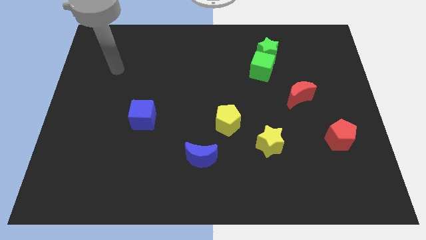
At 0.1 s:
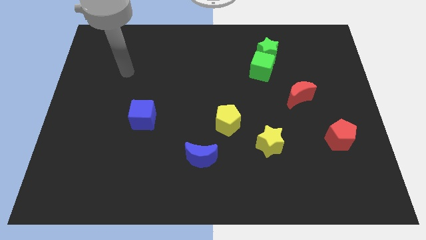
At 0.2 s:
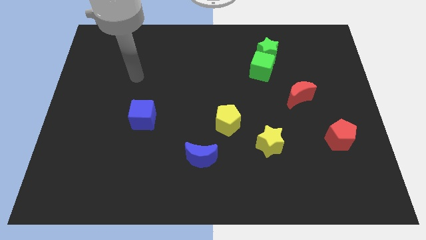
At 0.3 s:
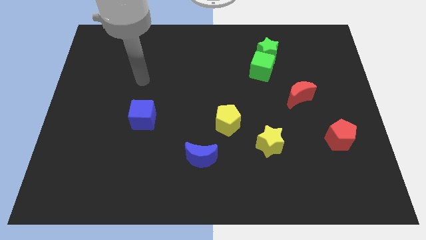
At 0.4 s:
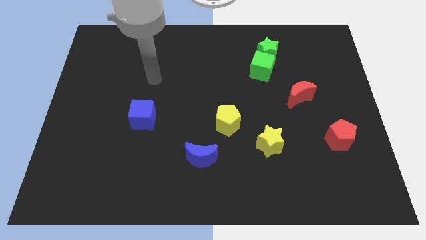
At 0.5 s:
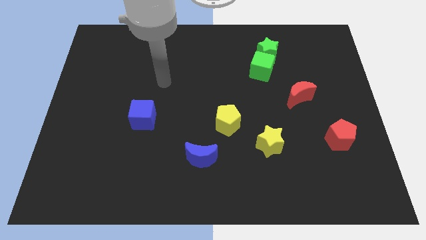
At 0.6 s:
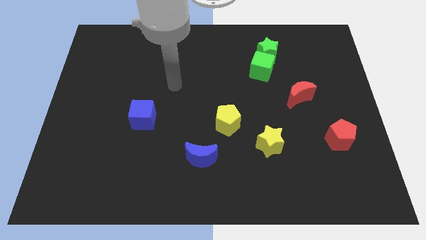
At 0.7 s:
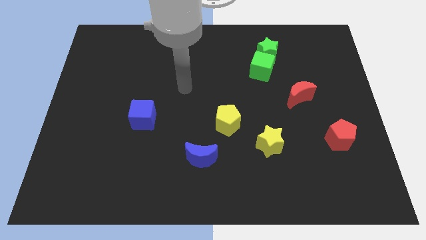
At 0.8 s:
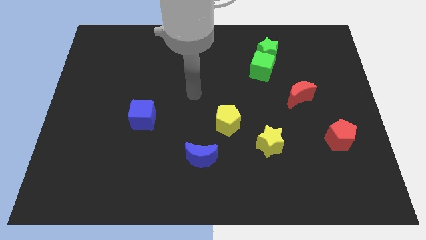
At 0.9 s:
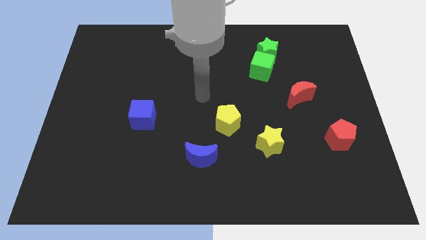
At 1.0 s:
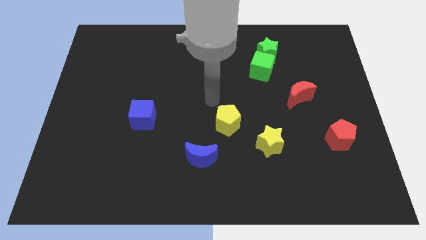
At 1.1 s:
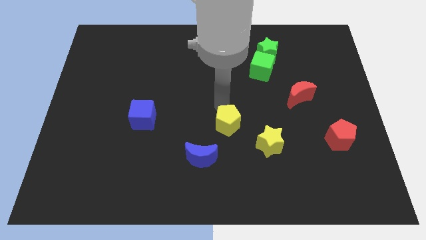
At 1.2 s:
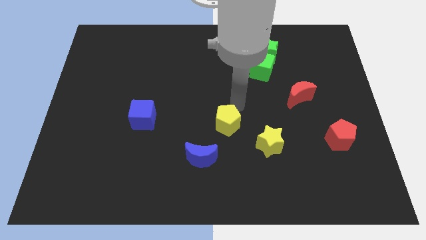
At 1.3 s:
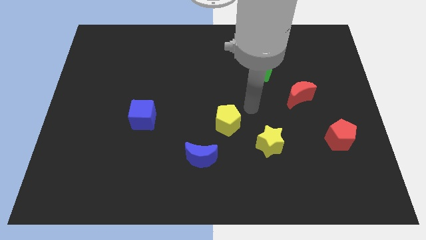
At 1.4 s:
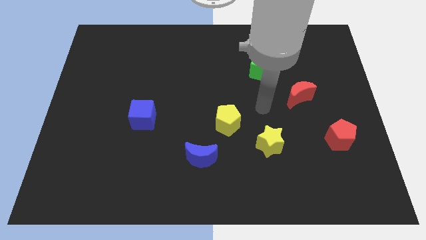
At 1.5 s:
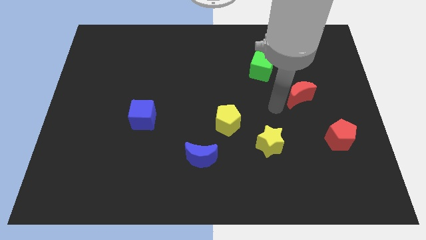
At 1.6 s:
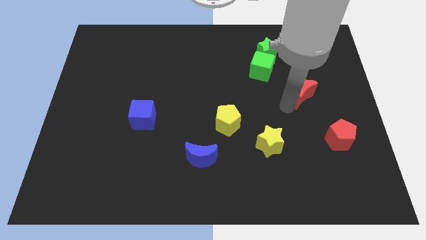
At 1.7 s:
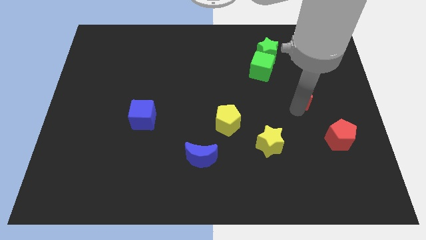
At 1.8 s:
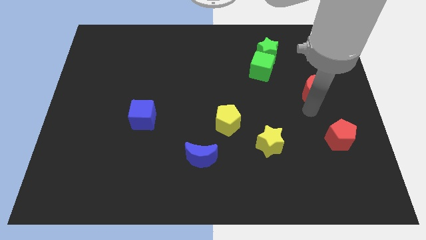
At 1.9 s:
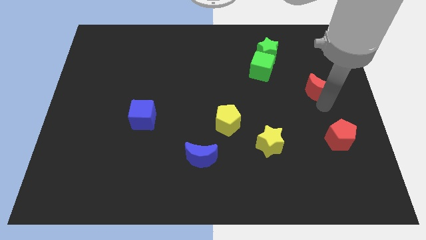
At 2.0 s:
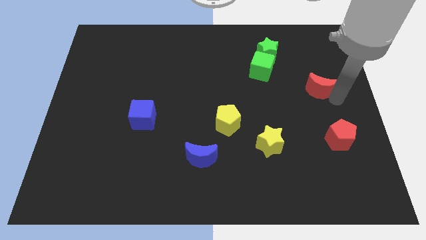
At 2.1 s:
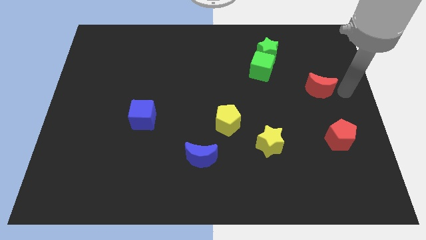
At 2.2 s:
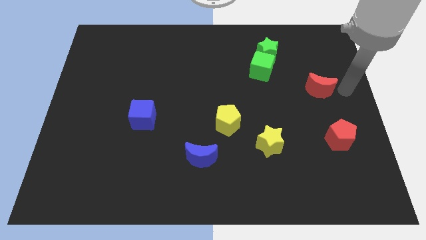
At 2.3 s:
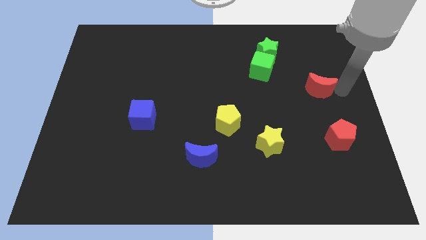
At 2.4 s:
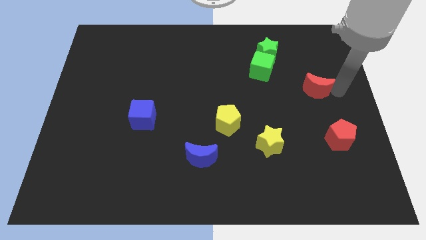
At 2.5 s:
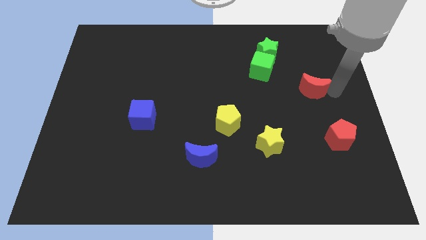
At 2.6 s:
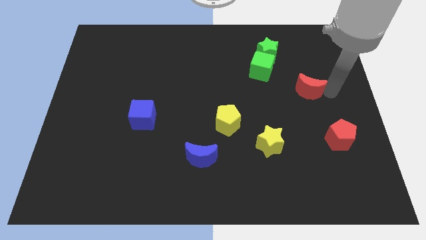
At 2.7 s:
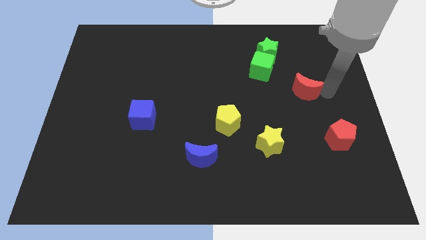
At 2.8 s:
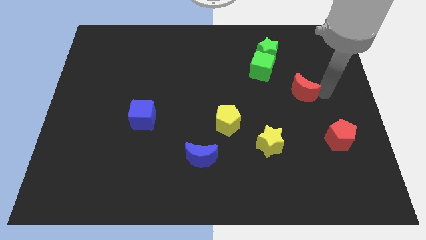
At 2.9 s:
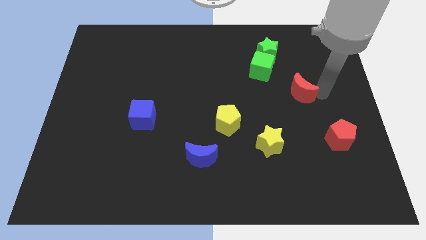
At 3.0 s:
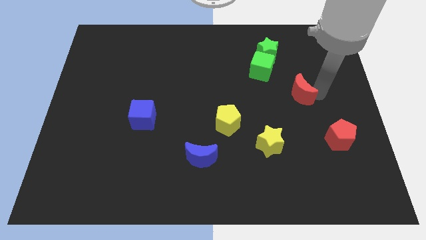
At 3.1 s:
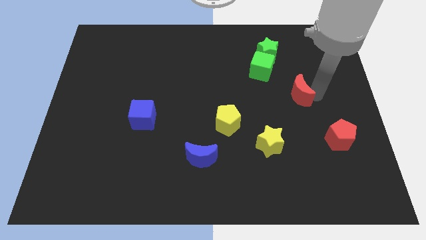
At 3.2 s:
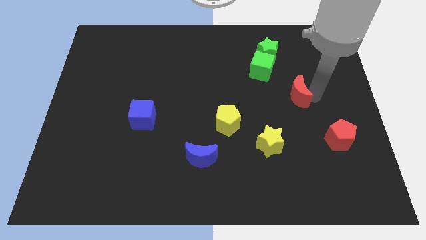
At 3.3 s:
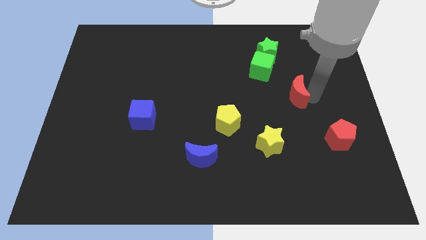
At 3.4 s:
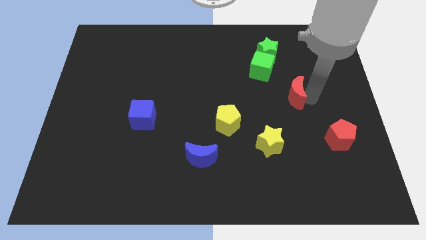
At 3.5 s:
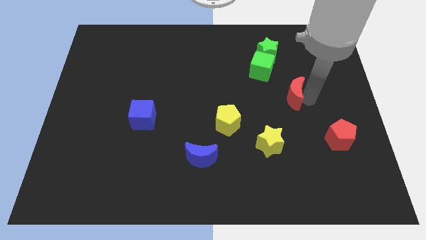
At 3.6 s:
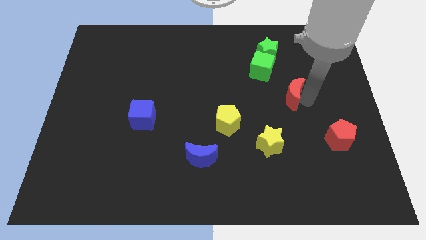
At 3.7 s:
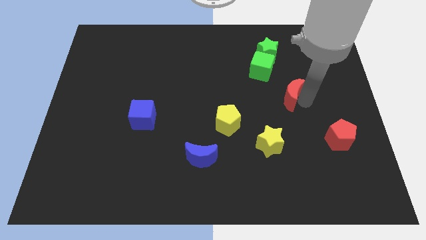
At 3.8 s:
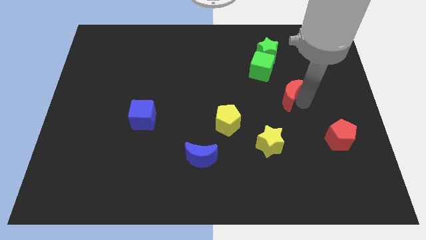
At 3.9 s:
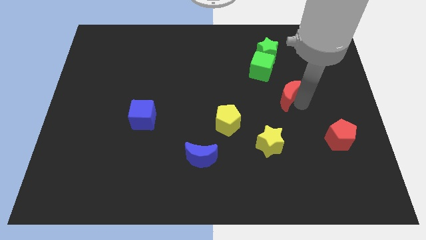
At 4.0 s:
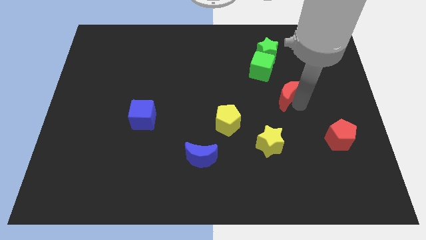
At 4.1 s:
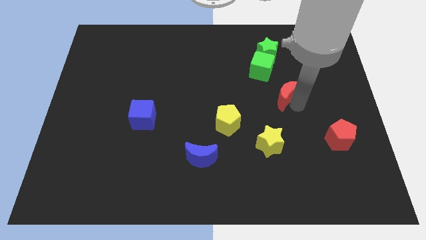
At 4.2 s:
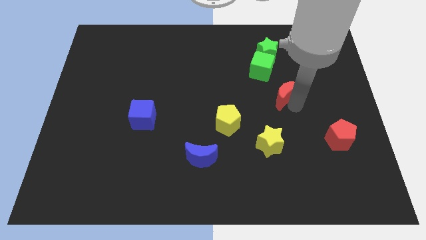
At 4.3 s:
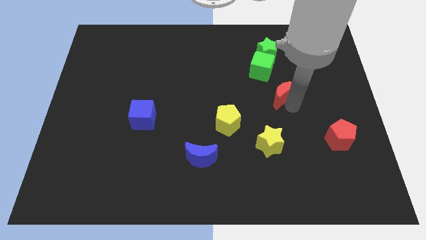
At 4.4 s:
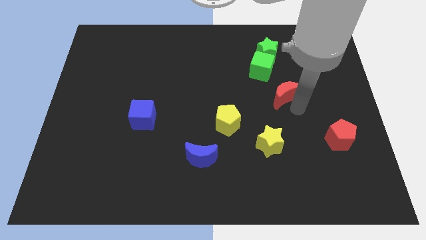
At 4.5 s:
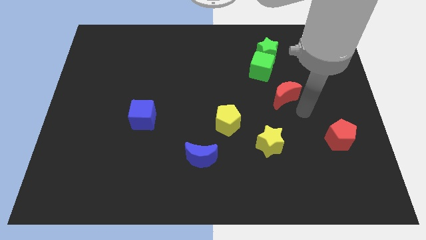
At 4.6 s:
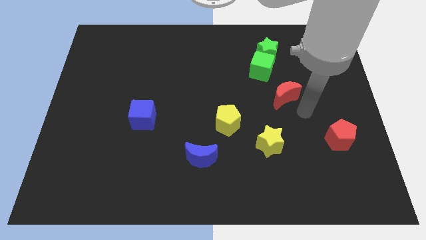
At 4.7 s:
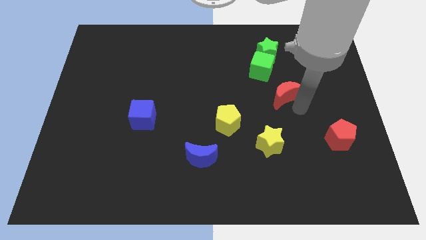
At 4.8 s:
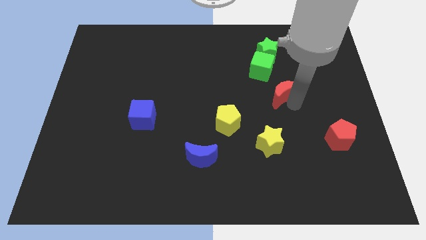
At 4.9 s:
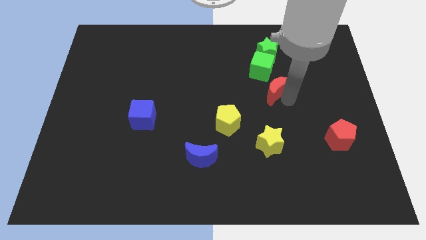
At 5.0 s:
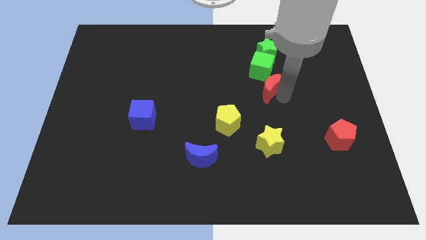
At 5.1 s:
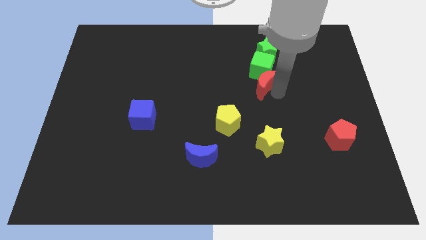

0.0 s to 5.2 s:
push the red moon upwards and to the left diagonally a bit

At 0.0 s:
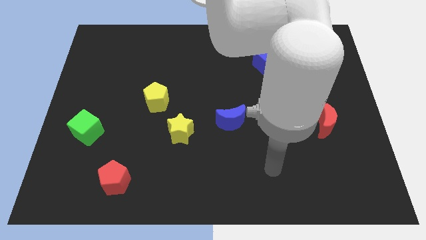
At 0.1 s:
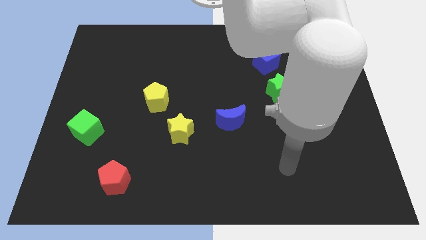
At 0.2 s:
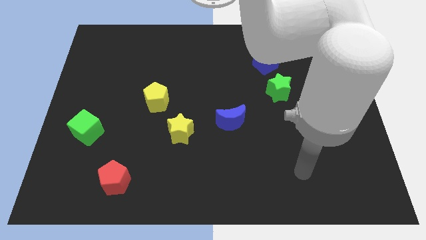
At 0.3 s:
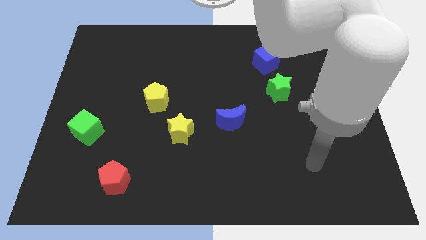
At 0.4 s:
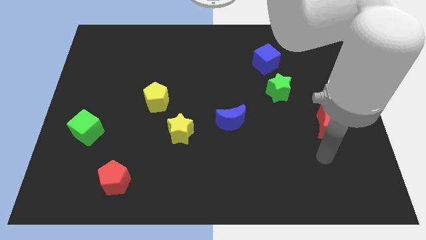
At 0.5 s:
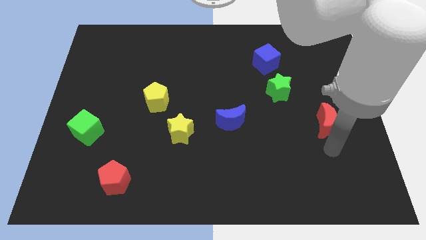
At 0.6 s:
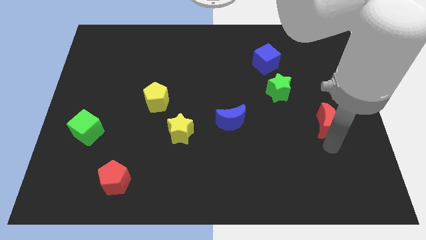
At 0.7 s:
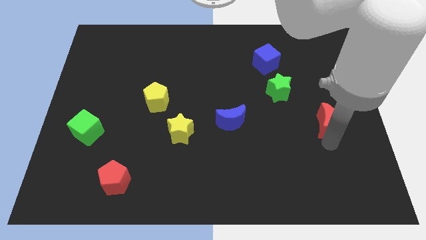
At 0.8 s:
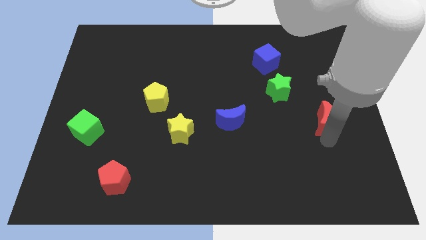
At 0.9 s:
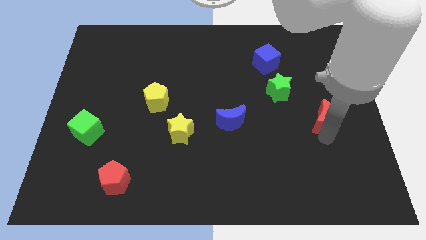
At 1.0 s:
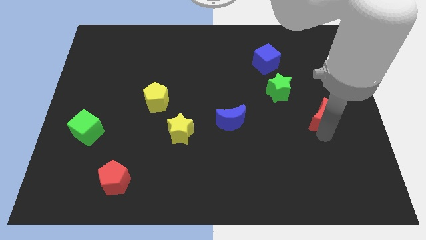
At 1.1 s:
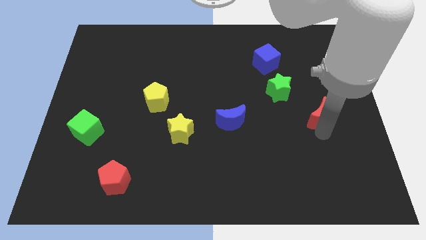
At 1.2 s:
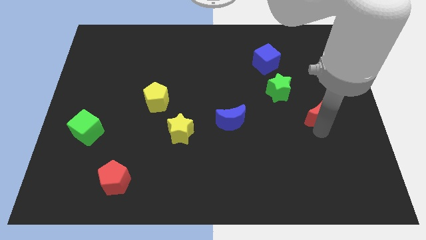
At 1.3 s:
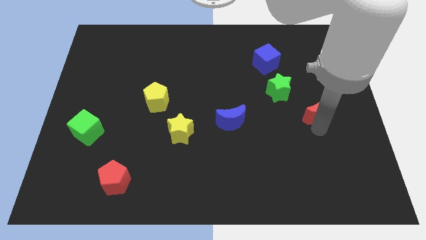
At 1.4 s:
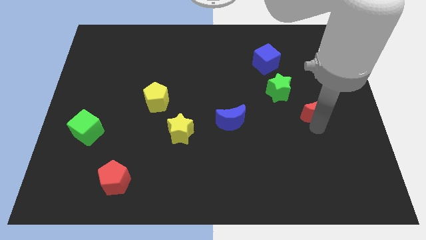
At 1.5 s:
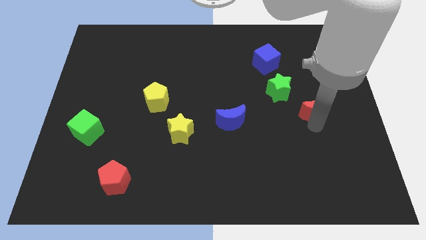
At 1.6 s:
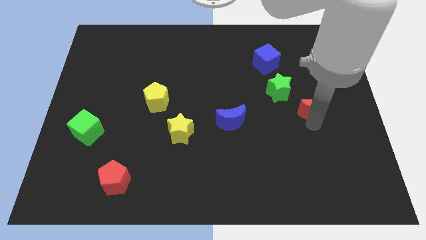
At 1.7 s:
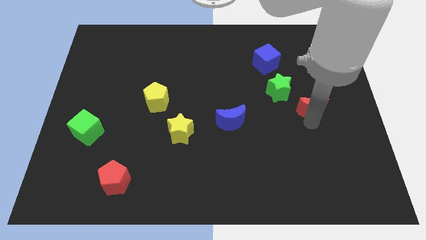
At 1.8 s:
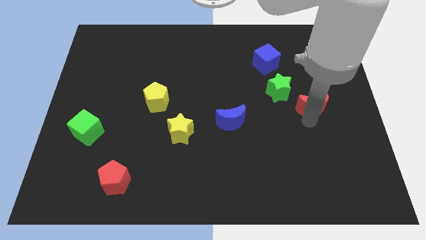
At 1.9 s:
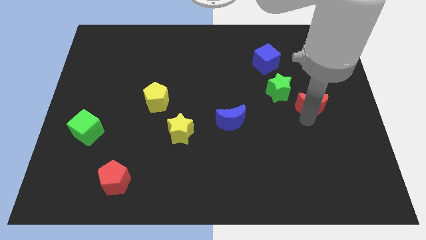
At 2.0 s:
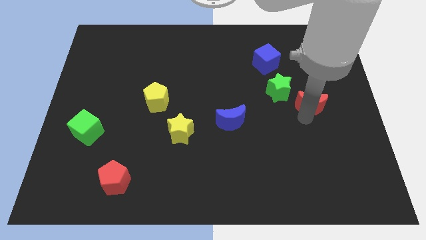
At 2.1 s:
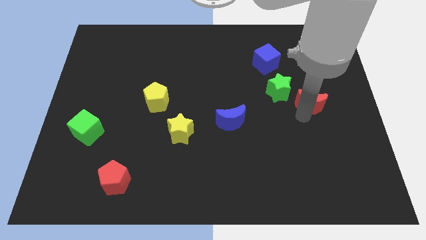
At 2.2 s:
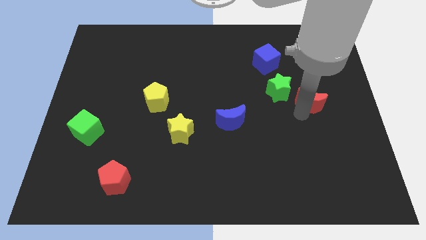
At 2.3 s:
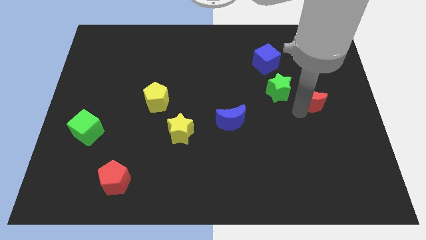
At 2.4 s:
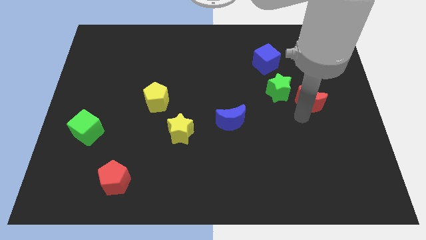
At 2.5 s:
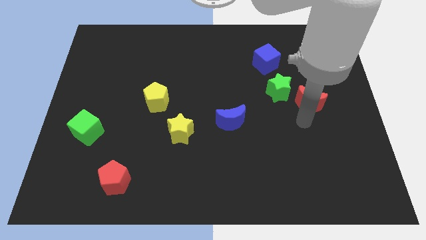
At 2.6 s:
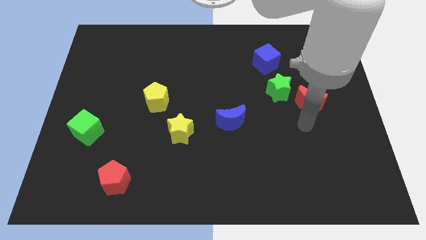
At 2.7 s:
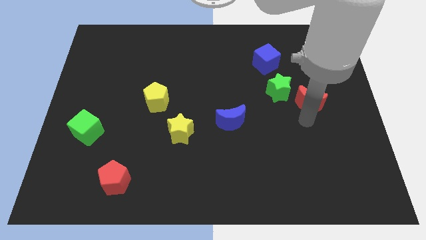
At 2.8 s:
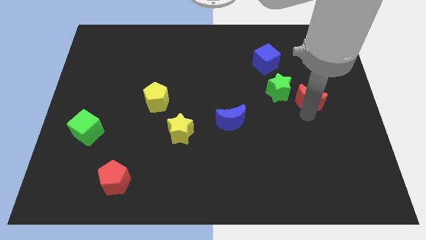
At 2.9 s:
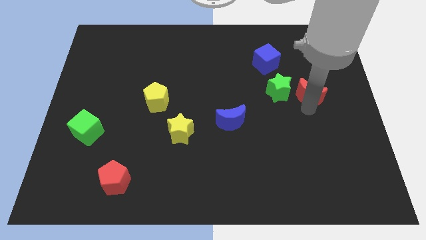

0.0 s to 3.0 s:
move the red moon upwards a little
